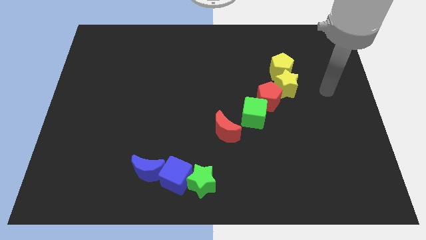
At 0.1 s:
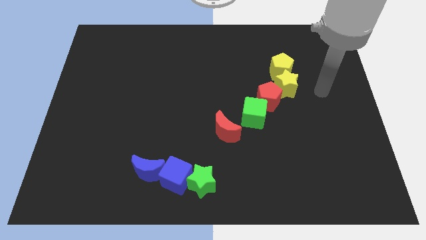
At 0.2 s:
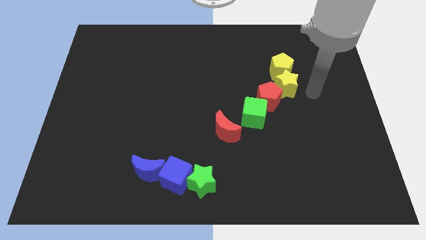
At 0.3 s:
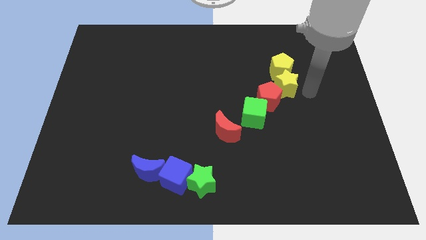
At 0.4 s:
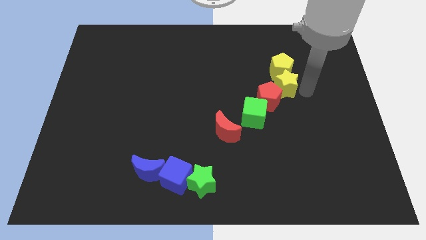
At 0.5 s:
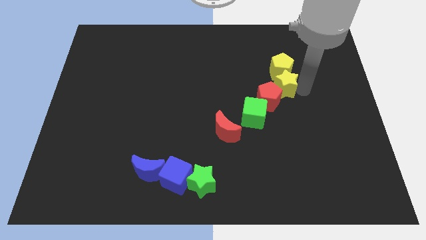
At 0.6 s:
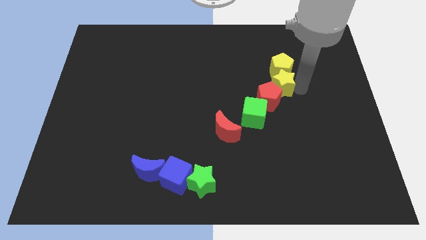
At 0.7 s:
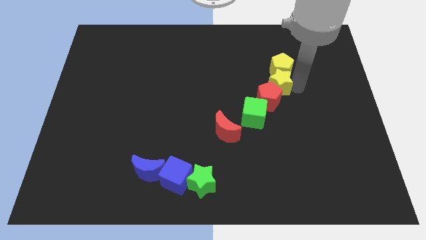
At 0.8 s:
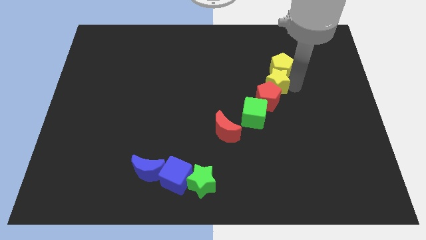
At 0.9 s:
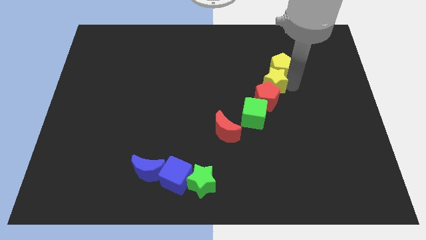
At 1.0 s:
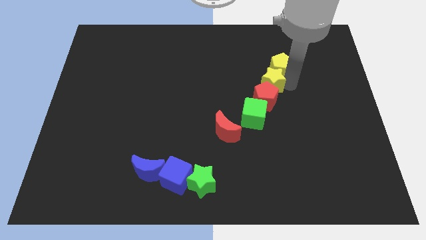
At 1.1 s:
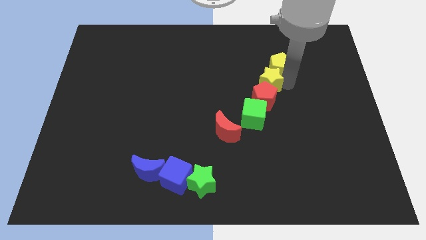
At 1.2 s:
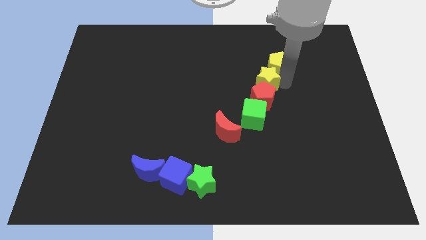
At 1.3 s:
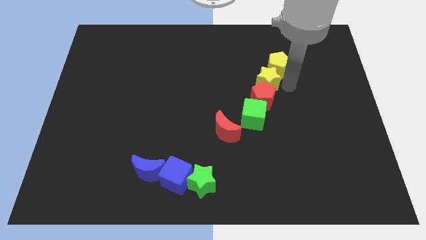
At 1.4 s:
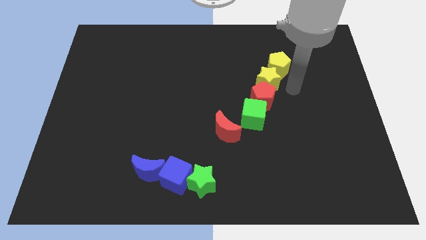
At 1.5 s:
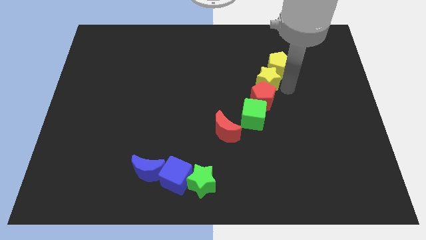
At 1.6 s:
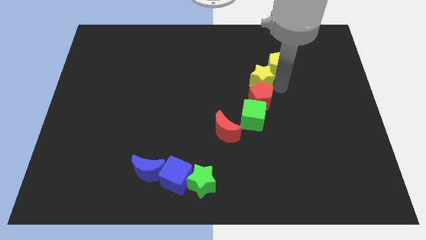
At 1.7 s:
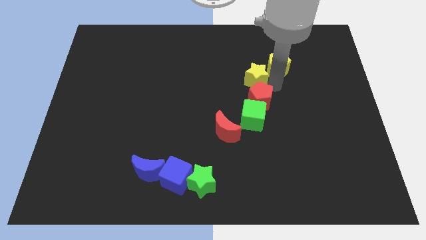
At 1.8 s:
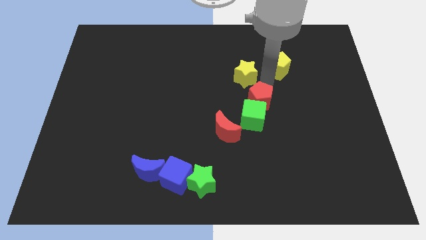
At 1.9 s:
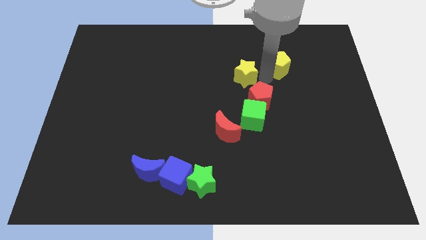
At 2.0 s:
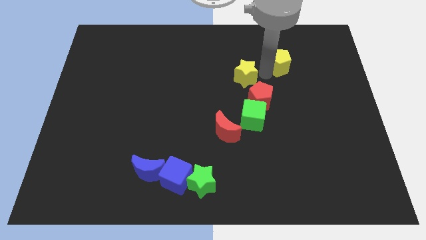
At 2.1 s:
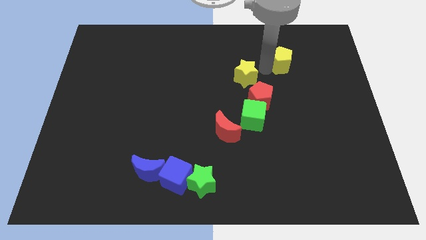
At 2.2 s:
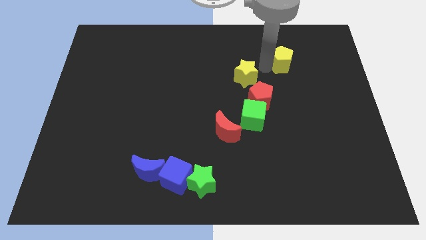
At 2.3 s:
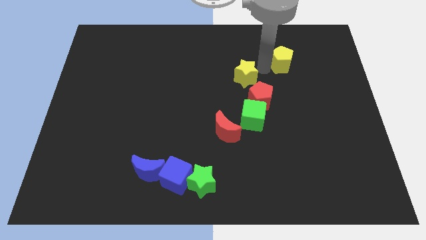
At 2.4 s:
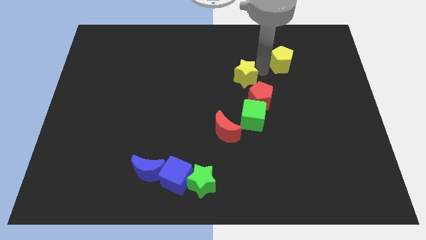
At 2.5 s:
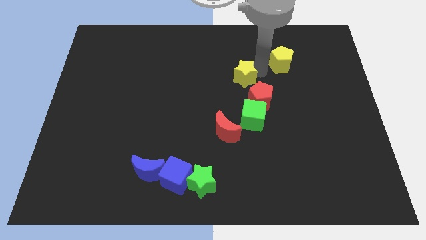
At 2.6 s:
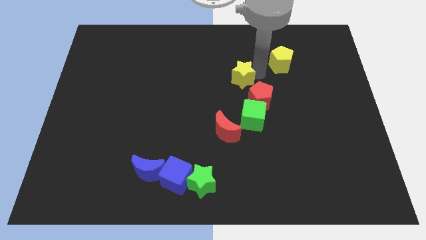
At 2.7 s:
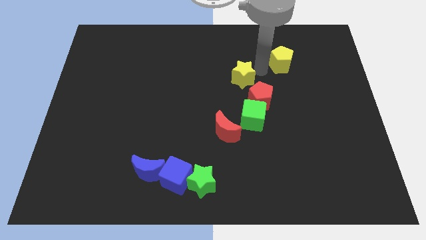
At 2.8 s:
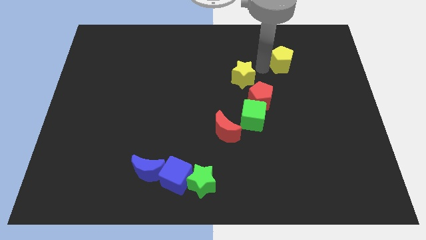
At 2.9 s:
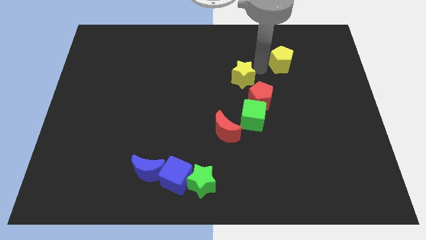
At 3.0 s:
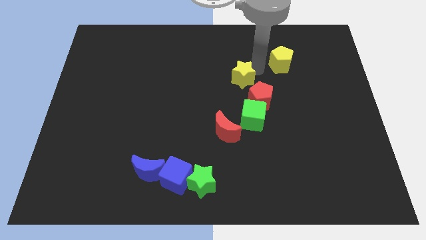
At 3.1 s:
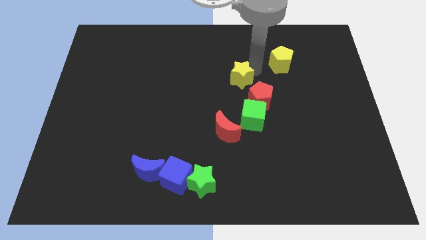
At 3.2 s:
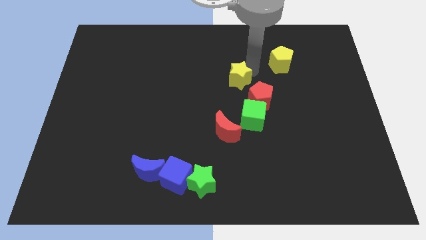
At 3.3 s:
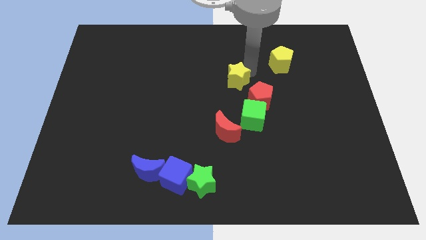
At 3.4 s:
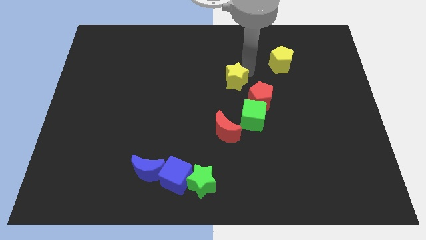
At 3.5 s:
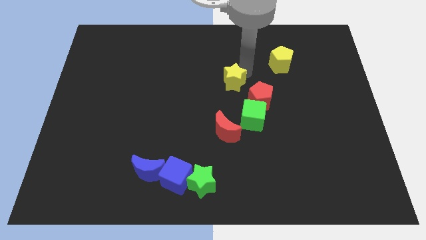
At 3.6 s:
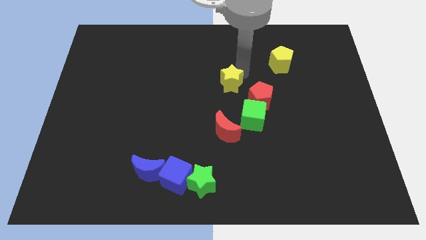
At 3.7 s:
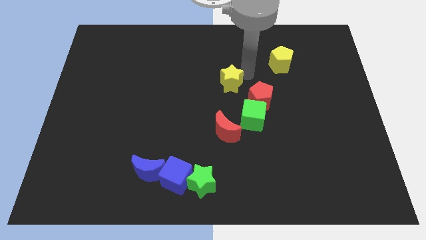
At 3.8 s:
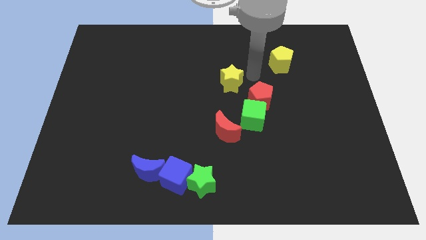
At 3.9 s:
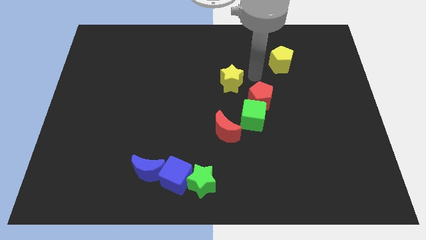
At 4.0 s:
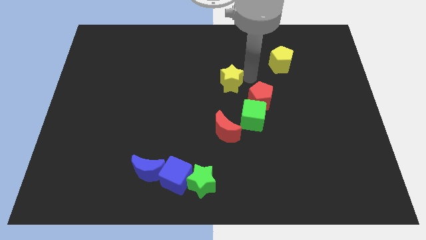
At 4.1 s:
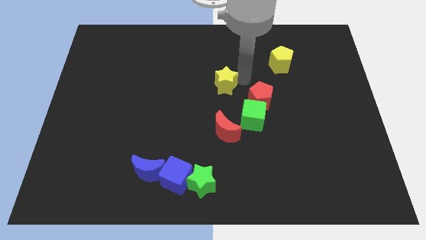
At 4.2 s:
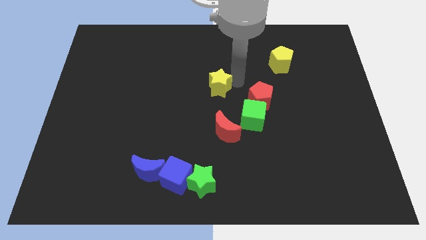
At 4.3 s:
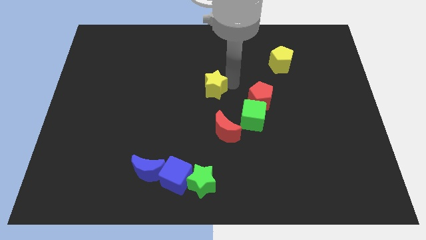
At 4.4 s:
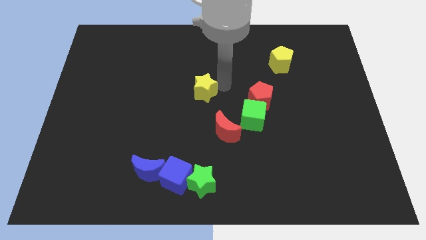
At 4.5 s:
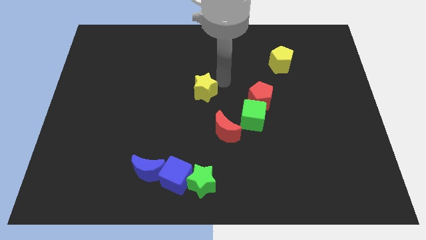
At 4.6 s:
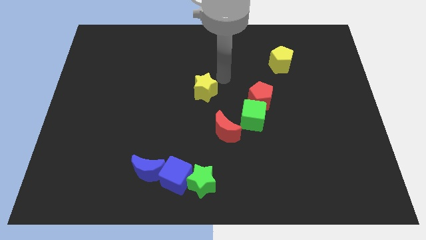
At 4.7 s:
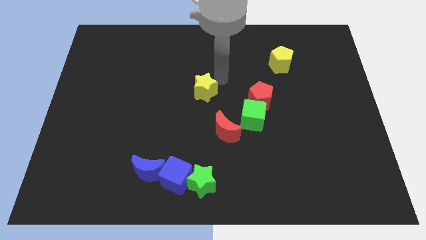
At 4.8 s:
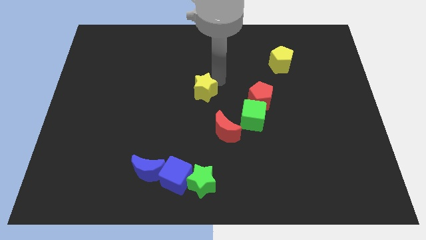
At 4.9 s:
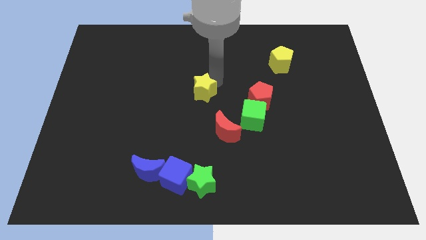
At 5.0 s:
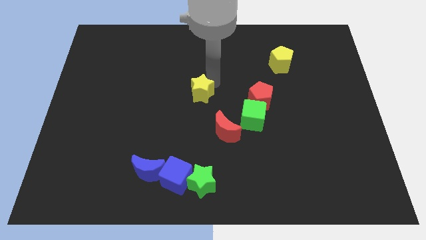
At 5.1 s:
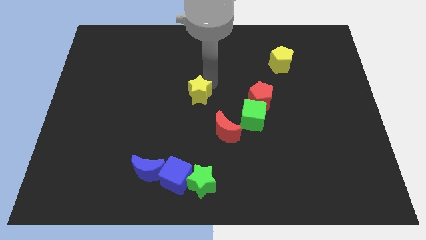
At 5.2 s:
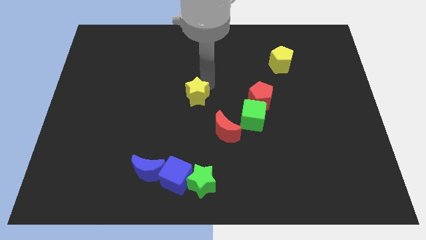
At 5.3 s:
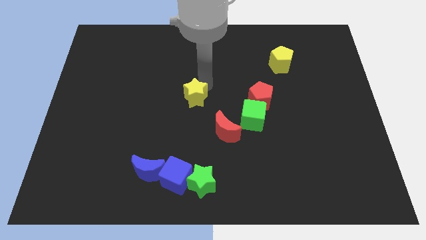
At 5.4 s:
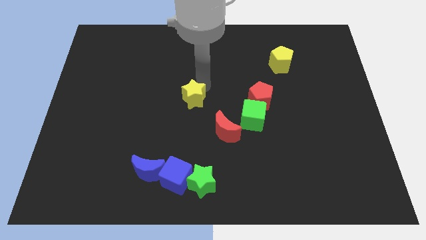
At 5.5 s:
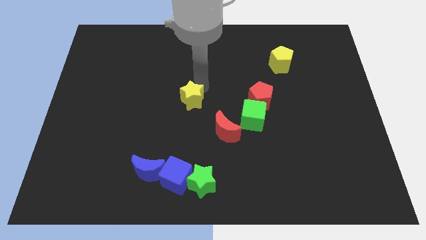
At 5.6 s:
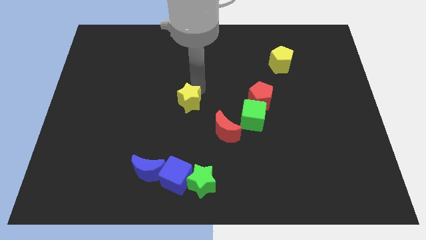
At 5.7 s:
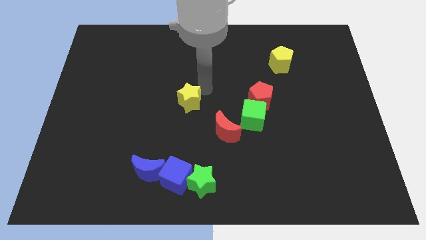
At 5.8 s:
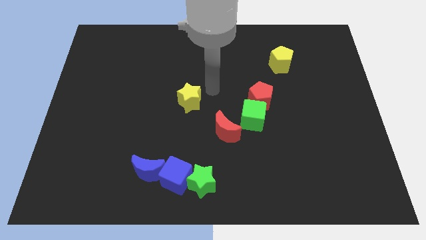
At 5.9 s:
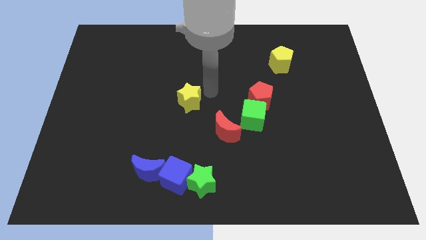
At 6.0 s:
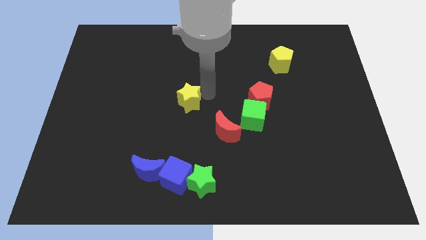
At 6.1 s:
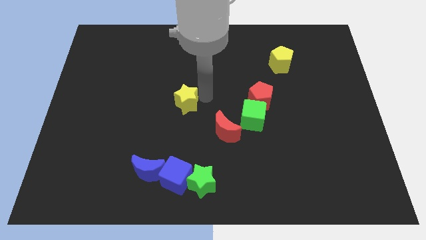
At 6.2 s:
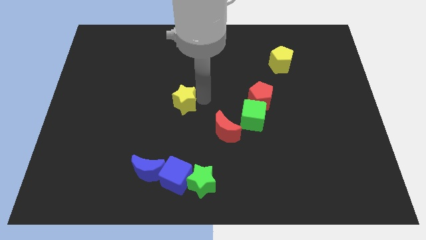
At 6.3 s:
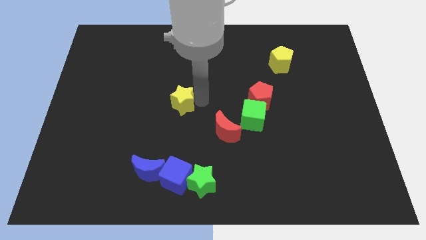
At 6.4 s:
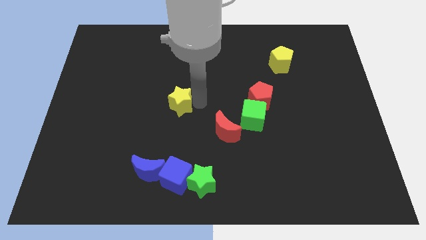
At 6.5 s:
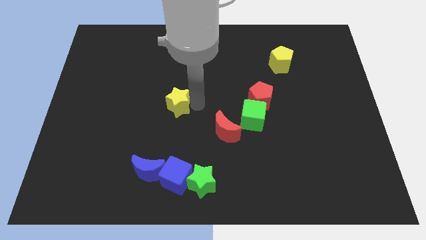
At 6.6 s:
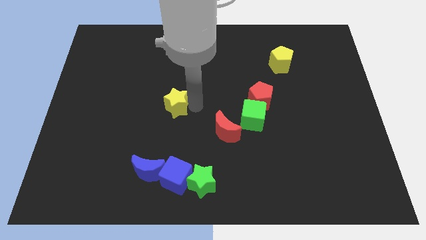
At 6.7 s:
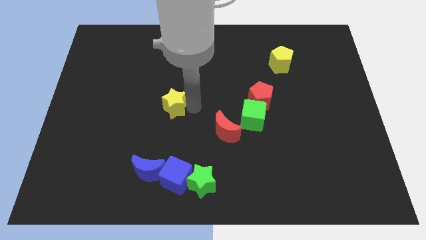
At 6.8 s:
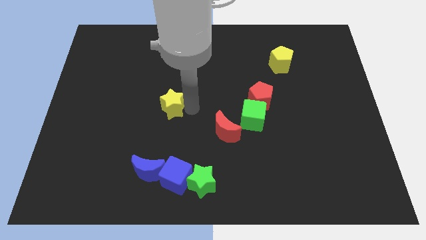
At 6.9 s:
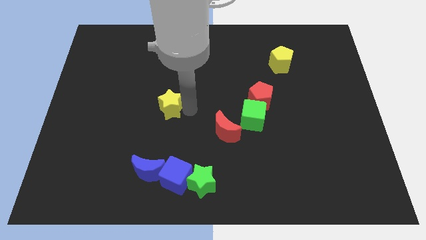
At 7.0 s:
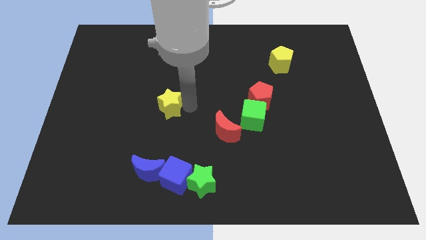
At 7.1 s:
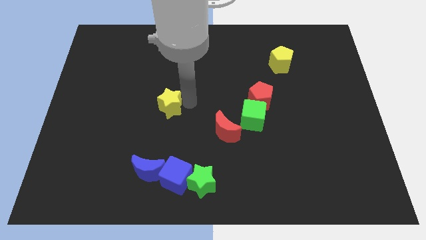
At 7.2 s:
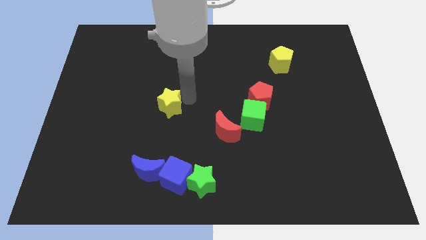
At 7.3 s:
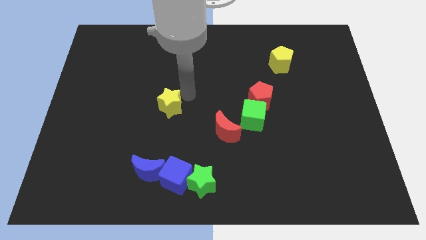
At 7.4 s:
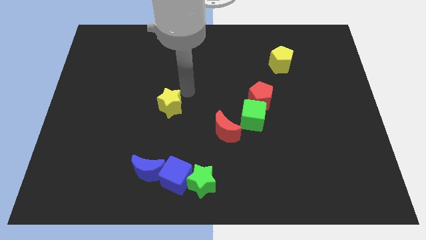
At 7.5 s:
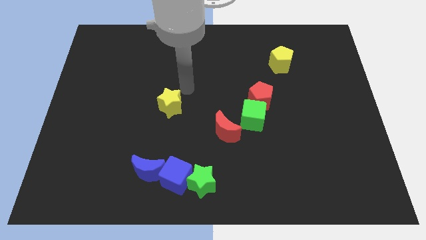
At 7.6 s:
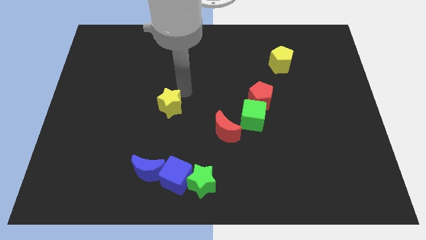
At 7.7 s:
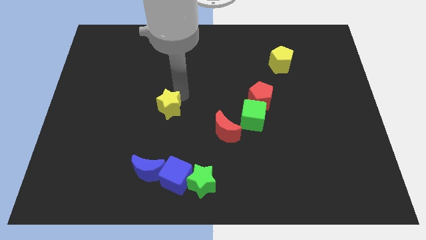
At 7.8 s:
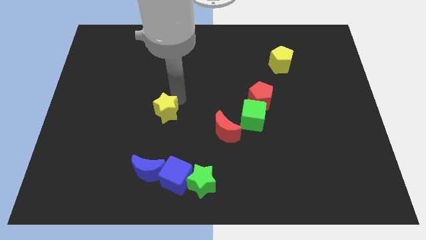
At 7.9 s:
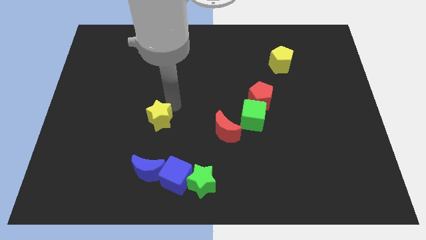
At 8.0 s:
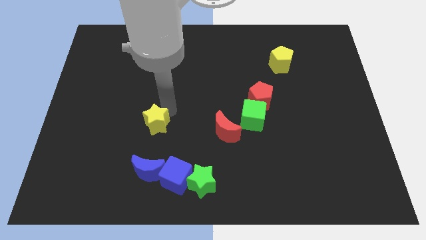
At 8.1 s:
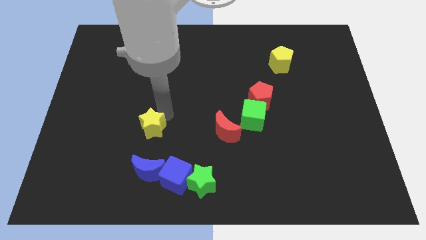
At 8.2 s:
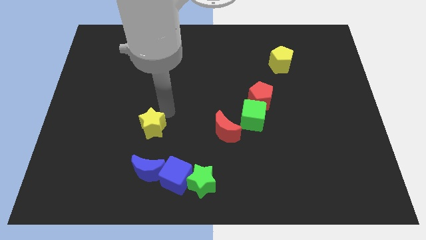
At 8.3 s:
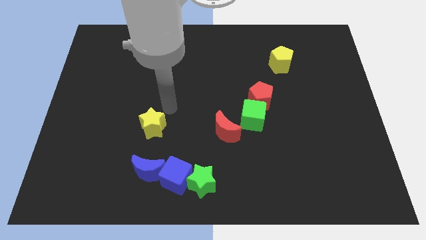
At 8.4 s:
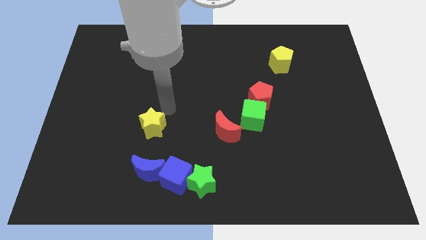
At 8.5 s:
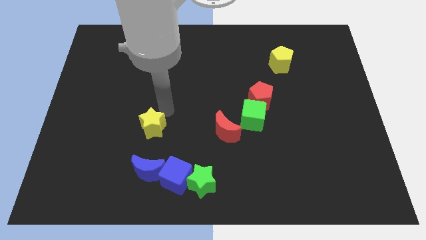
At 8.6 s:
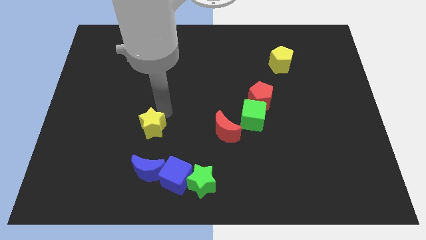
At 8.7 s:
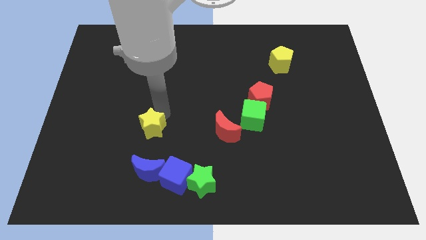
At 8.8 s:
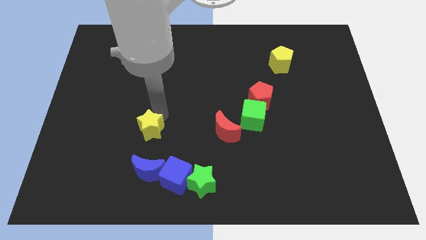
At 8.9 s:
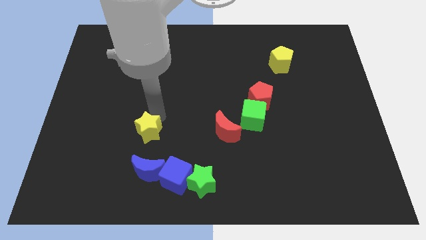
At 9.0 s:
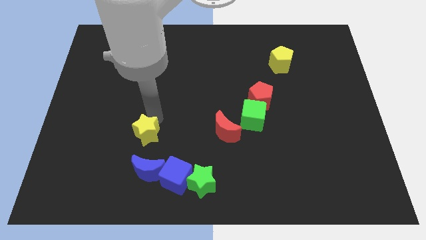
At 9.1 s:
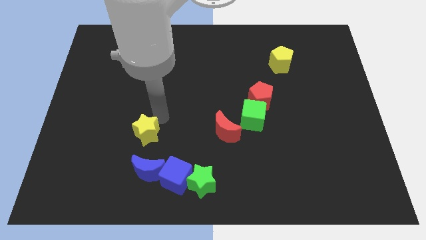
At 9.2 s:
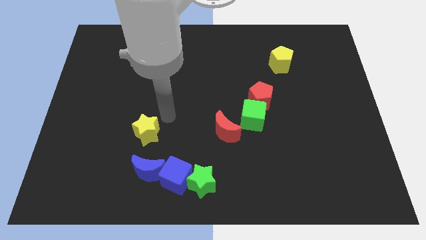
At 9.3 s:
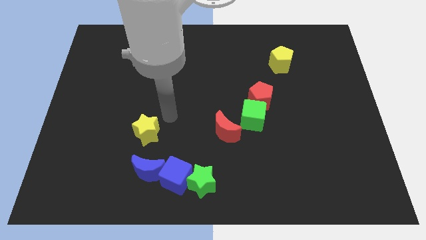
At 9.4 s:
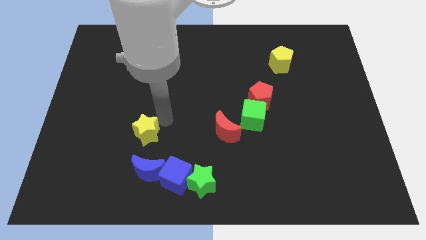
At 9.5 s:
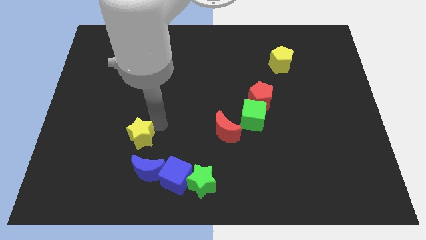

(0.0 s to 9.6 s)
push the yellow star to the top left of the blue moon
